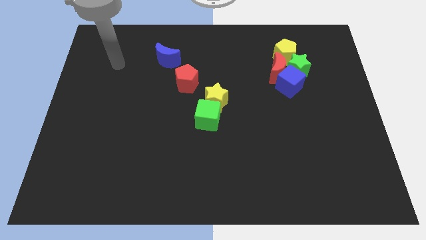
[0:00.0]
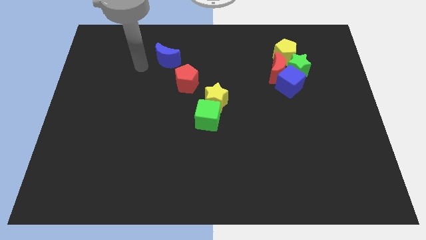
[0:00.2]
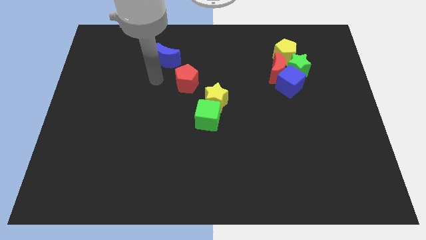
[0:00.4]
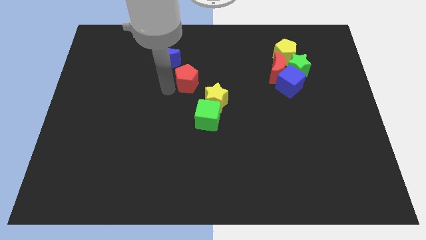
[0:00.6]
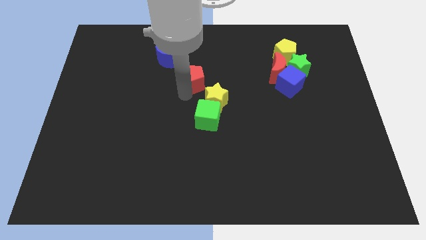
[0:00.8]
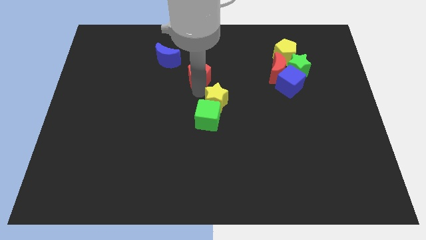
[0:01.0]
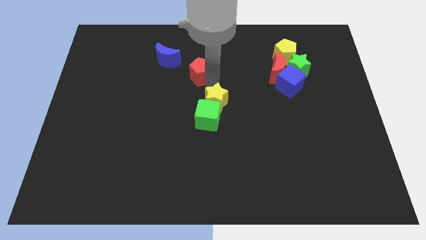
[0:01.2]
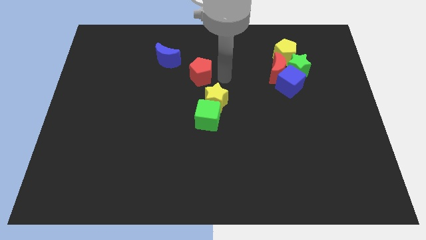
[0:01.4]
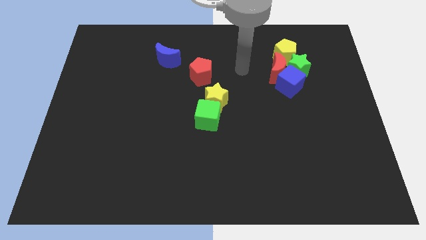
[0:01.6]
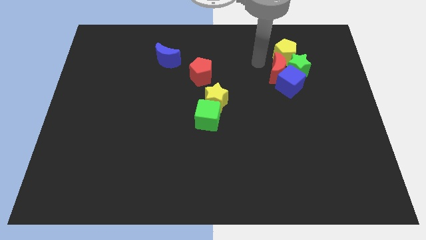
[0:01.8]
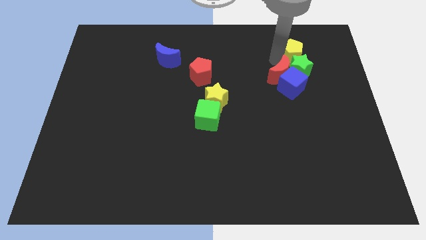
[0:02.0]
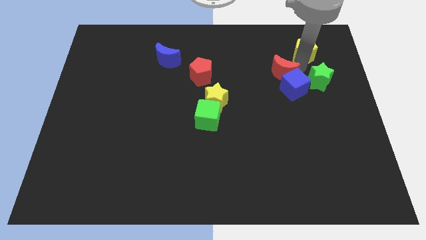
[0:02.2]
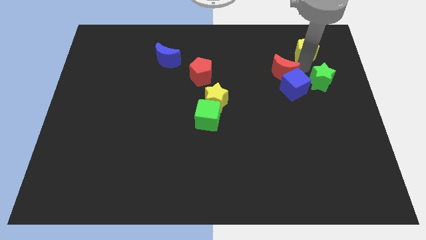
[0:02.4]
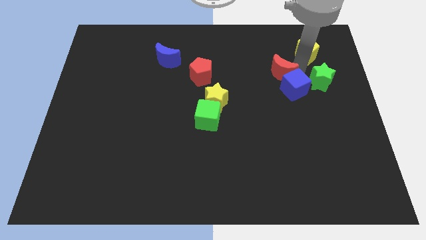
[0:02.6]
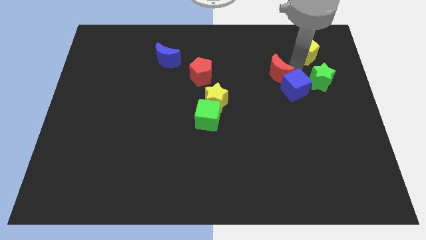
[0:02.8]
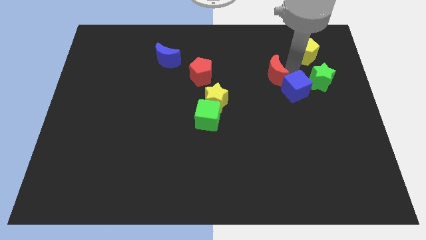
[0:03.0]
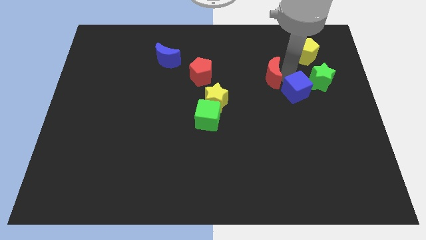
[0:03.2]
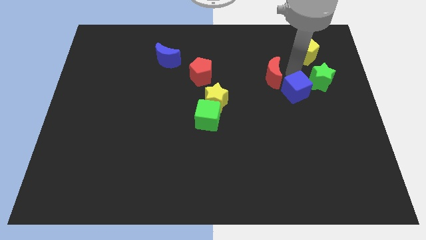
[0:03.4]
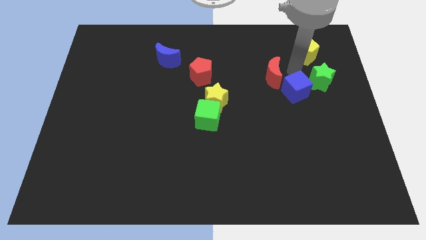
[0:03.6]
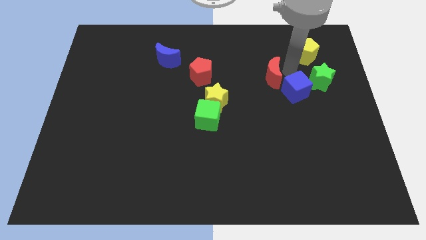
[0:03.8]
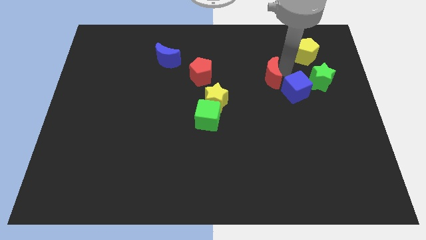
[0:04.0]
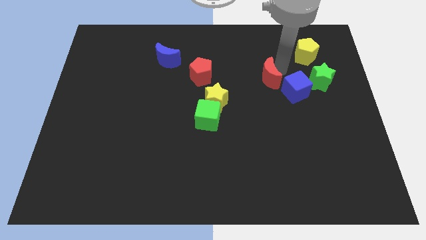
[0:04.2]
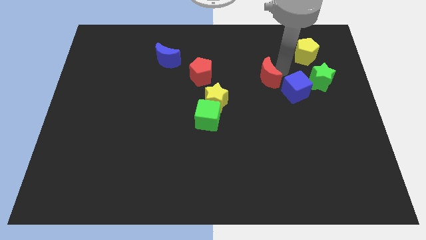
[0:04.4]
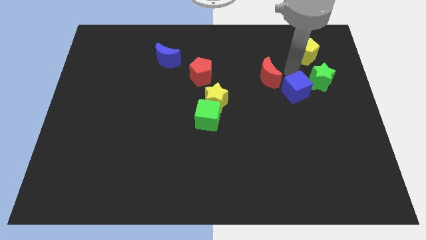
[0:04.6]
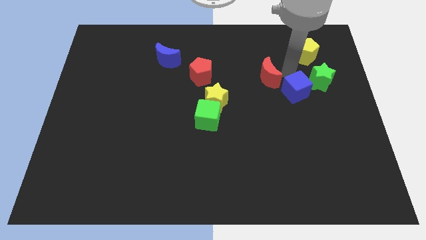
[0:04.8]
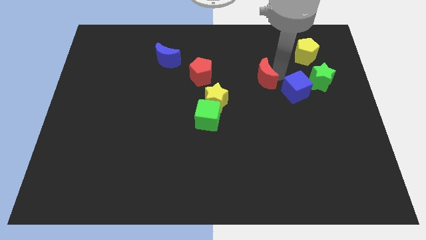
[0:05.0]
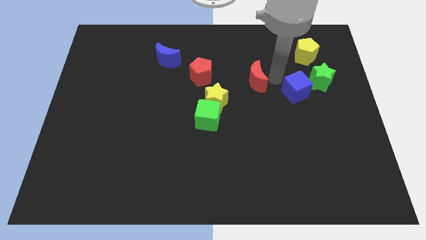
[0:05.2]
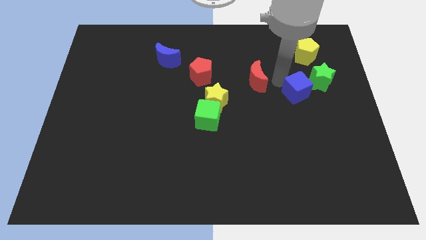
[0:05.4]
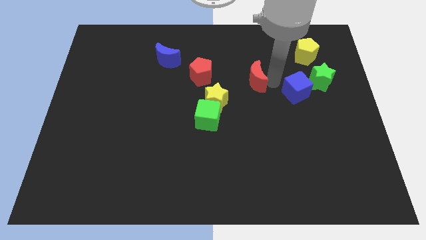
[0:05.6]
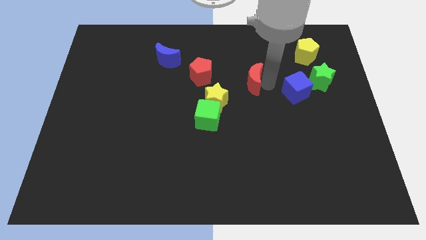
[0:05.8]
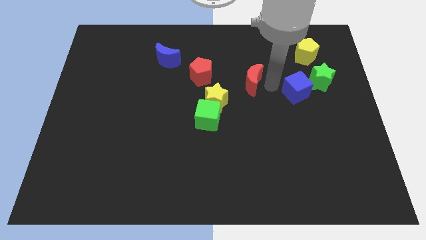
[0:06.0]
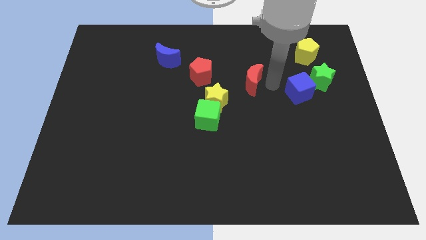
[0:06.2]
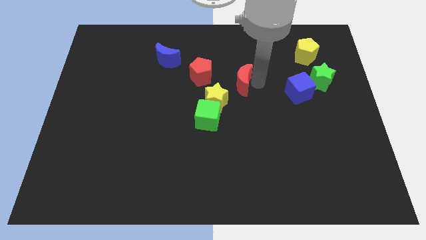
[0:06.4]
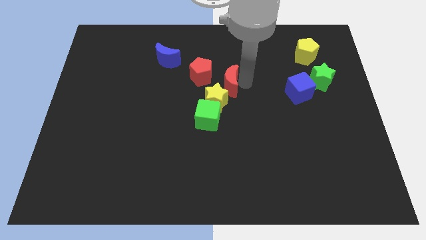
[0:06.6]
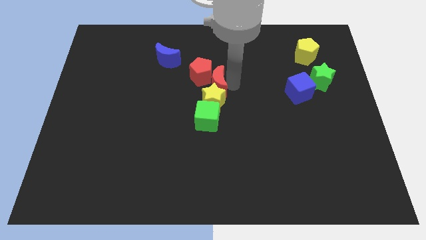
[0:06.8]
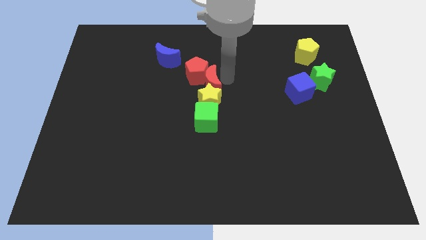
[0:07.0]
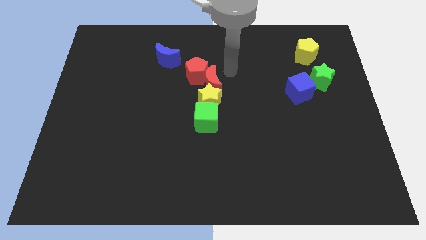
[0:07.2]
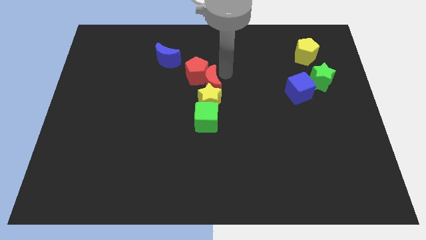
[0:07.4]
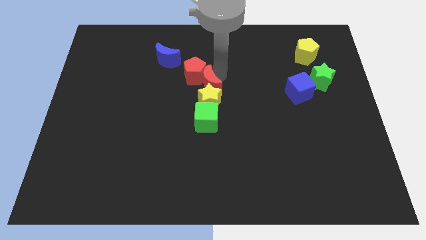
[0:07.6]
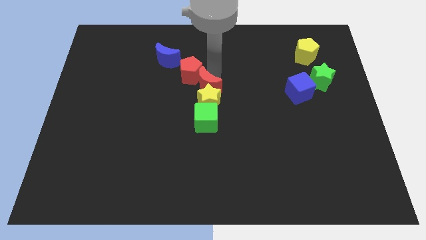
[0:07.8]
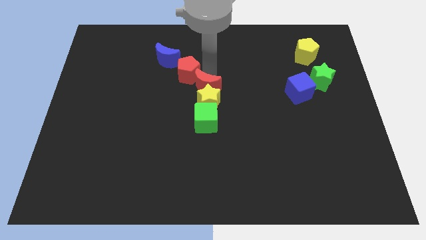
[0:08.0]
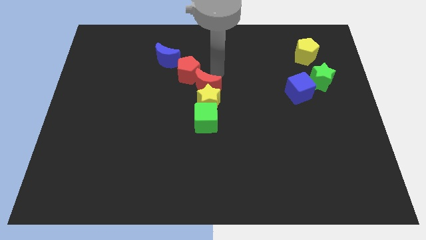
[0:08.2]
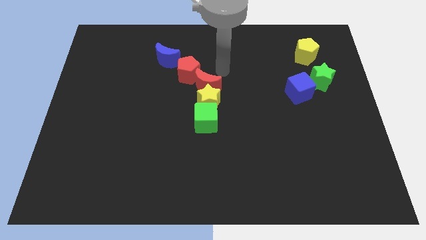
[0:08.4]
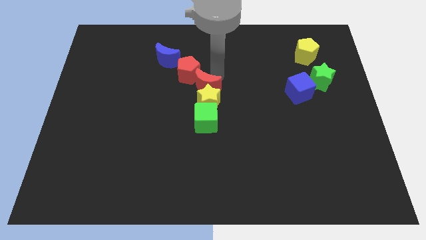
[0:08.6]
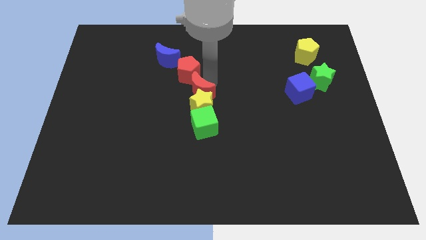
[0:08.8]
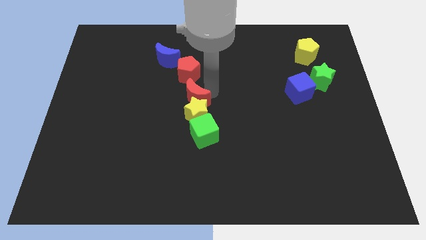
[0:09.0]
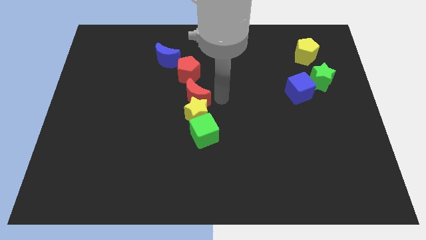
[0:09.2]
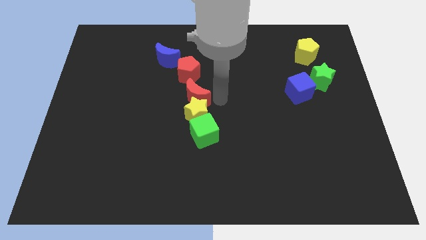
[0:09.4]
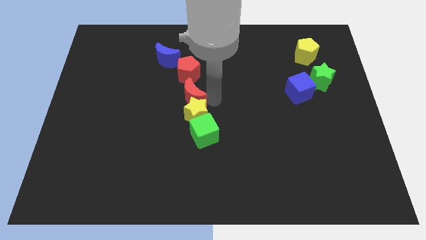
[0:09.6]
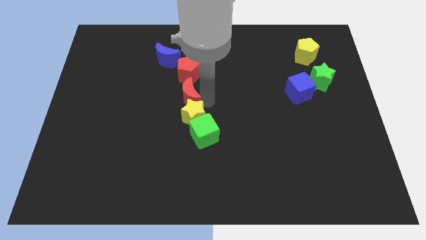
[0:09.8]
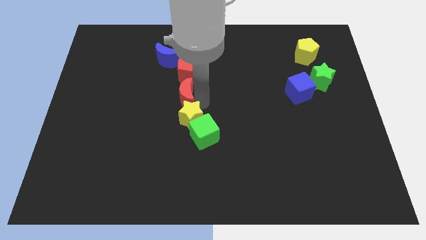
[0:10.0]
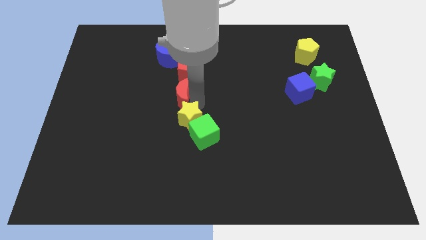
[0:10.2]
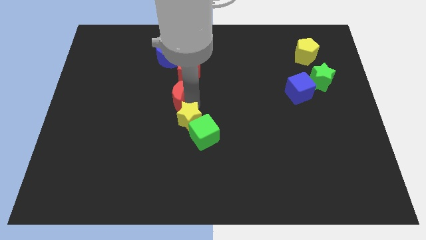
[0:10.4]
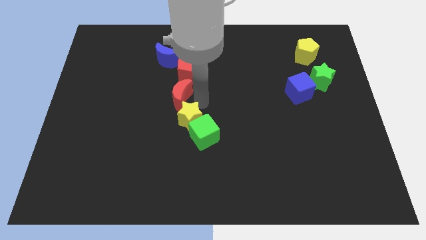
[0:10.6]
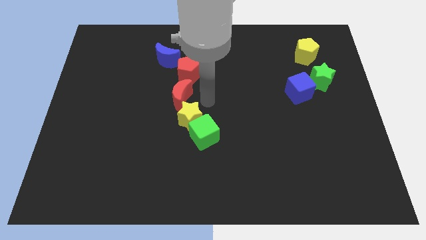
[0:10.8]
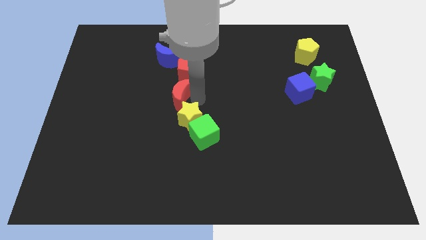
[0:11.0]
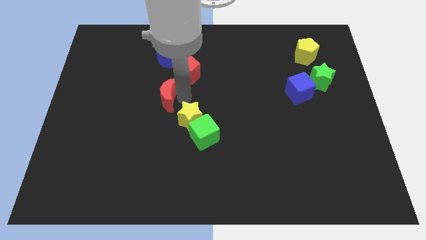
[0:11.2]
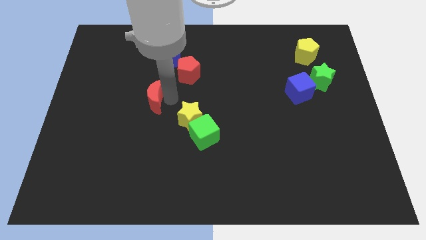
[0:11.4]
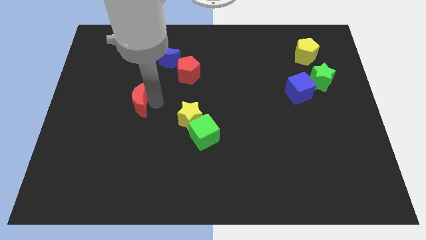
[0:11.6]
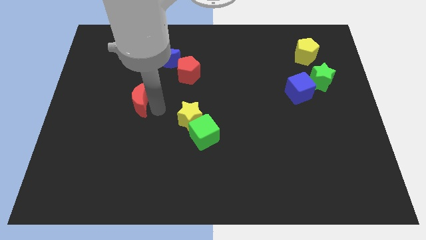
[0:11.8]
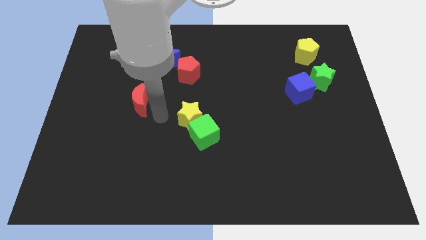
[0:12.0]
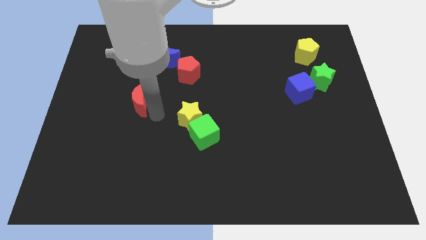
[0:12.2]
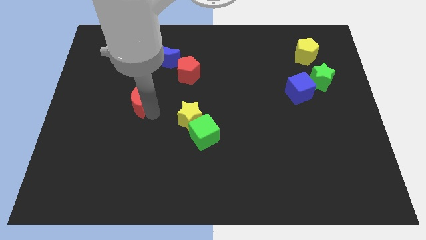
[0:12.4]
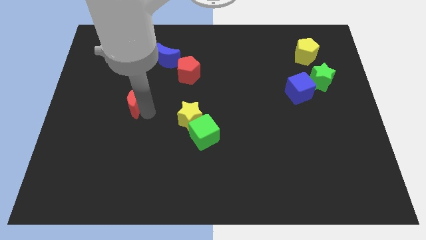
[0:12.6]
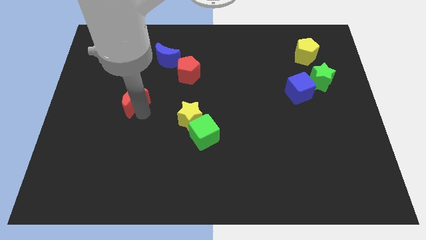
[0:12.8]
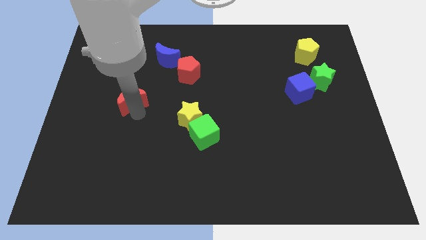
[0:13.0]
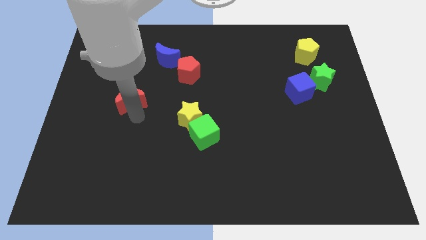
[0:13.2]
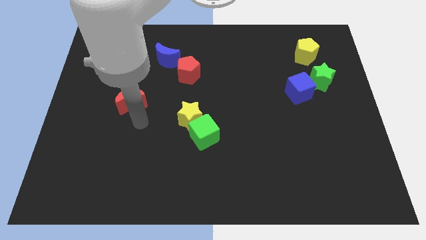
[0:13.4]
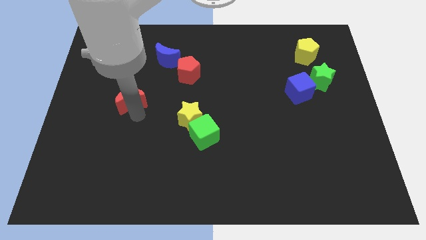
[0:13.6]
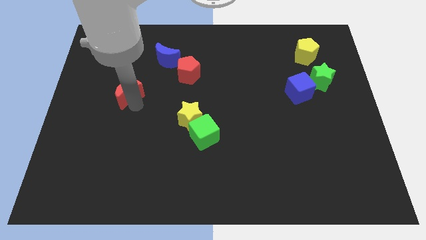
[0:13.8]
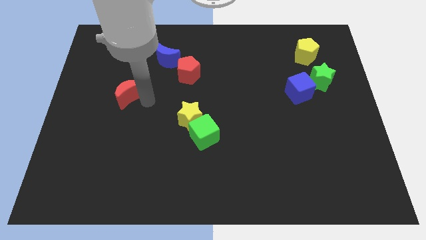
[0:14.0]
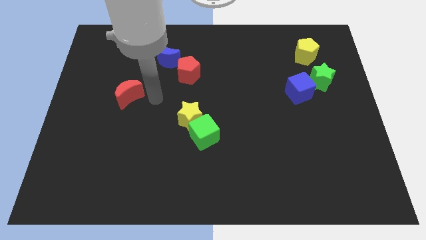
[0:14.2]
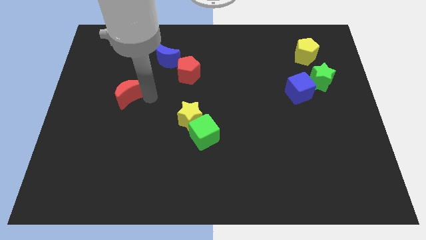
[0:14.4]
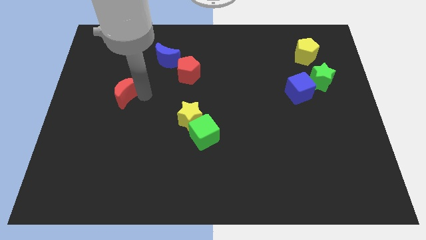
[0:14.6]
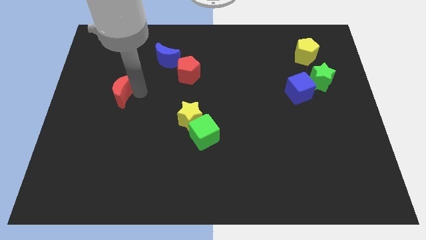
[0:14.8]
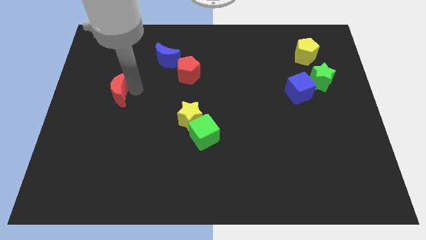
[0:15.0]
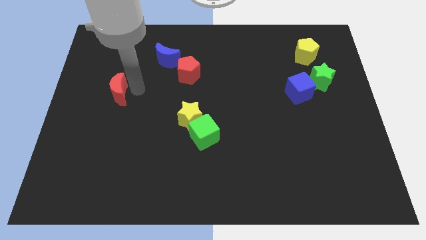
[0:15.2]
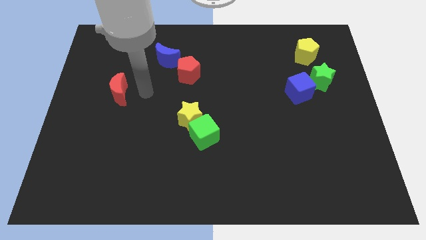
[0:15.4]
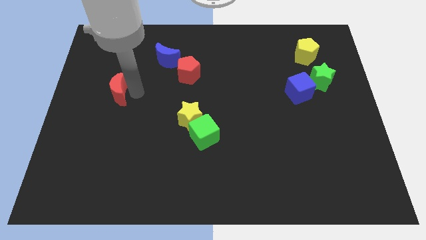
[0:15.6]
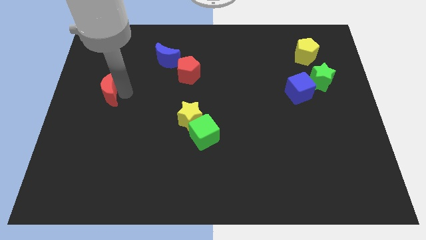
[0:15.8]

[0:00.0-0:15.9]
slide the red moon to the center left
